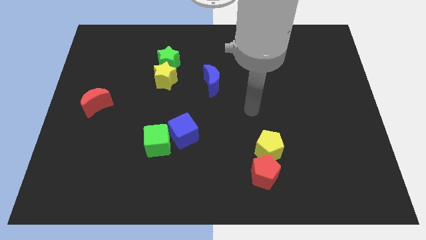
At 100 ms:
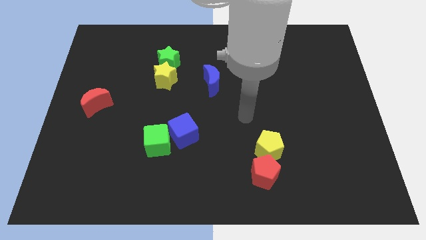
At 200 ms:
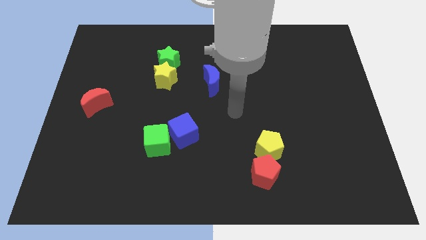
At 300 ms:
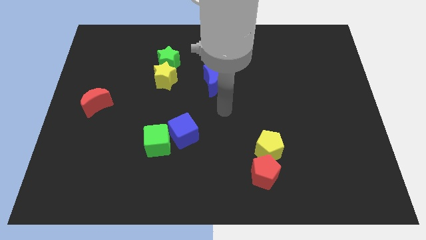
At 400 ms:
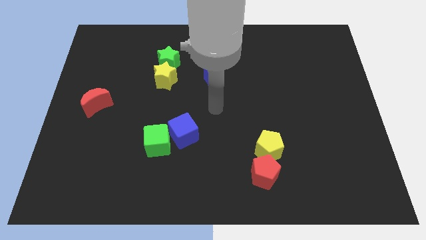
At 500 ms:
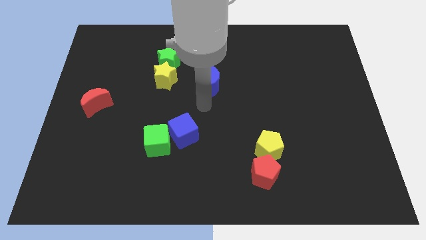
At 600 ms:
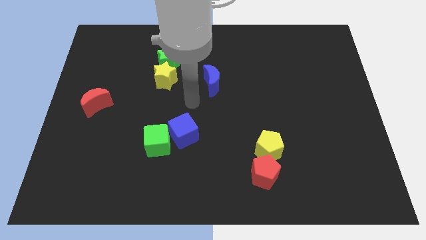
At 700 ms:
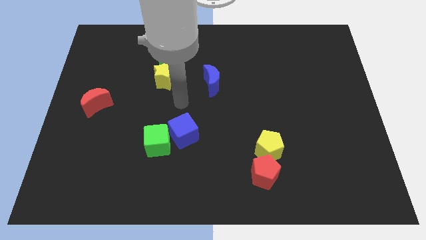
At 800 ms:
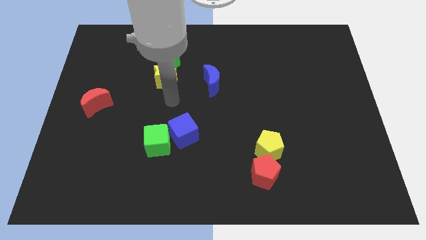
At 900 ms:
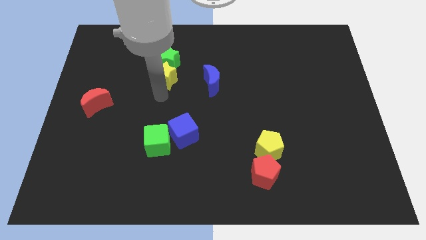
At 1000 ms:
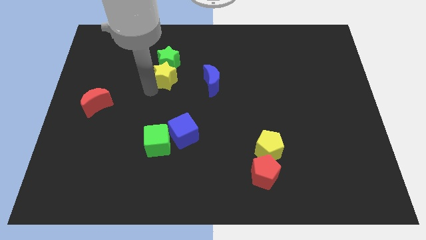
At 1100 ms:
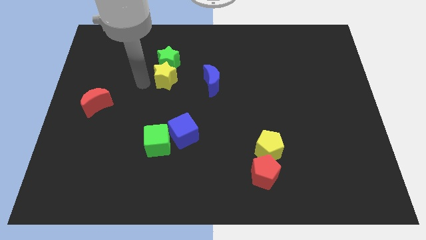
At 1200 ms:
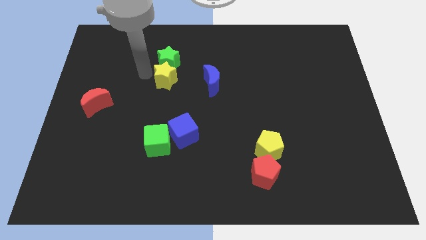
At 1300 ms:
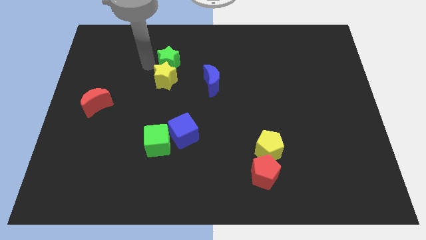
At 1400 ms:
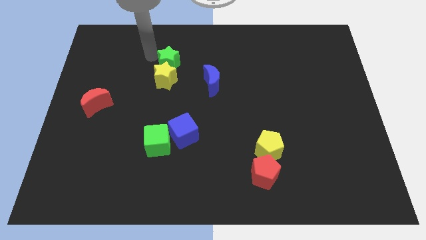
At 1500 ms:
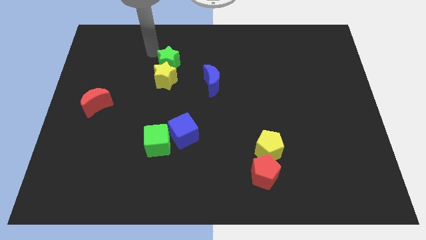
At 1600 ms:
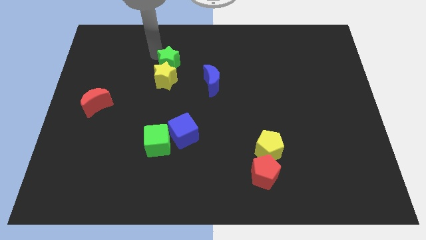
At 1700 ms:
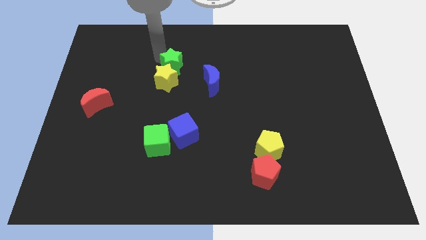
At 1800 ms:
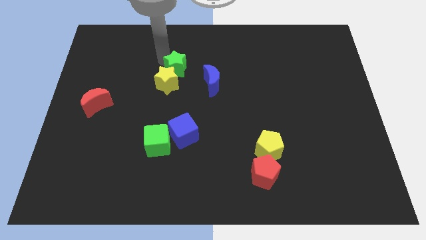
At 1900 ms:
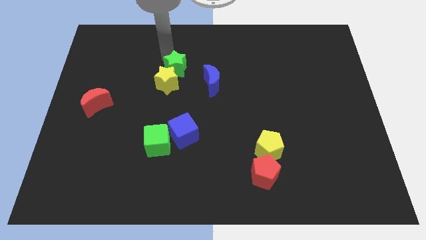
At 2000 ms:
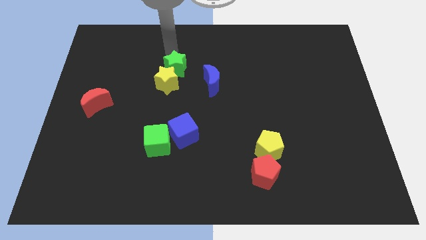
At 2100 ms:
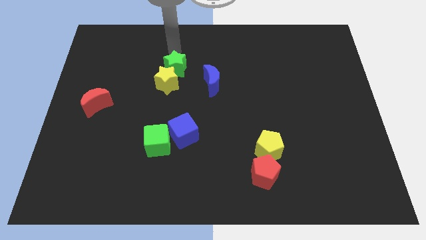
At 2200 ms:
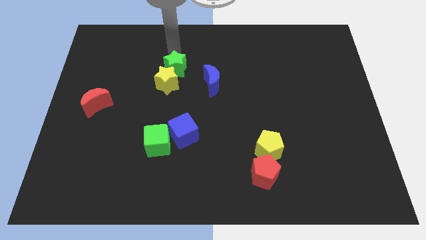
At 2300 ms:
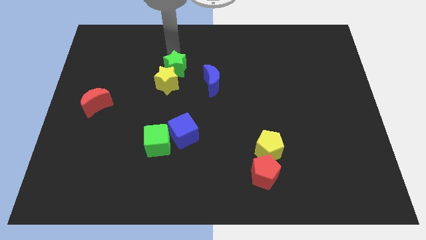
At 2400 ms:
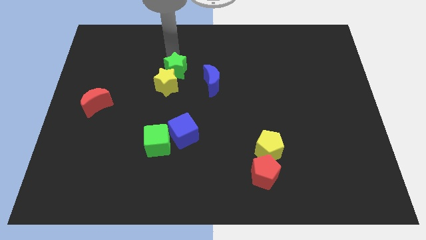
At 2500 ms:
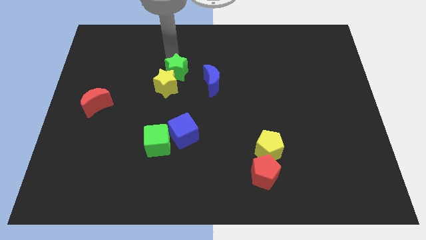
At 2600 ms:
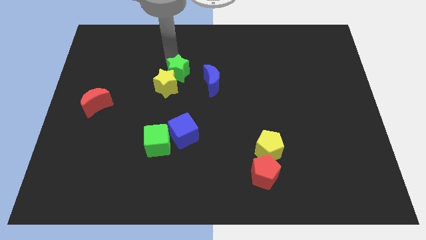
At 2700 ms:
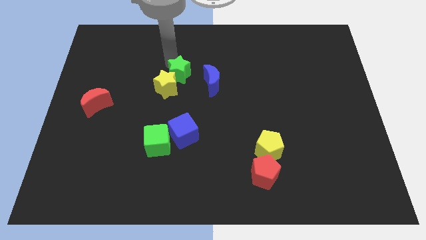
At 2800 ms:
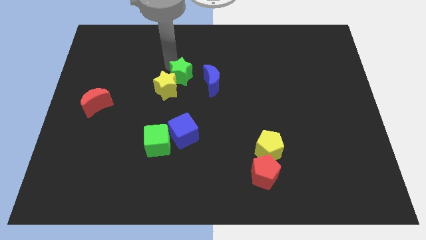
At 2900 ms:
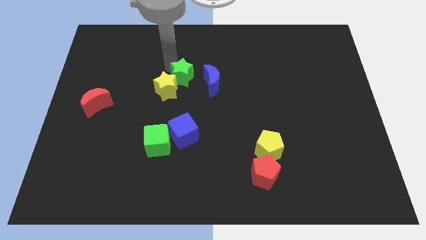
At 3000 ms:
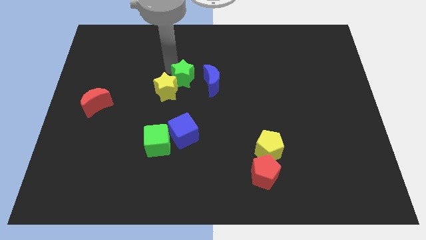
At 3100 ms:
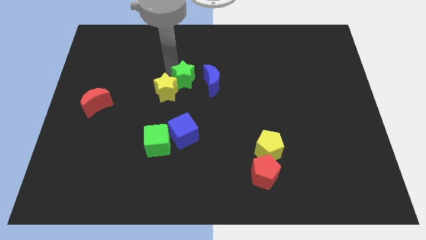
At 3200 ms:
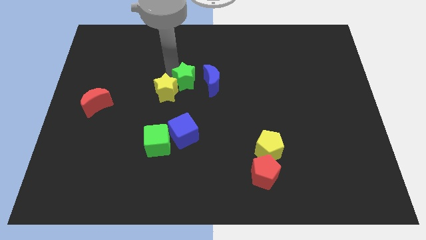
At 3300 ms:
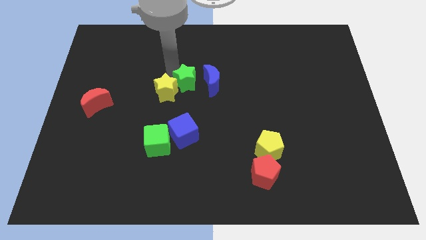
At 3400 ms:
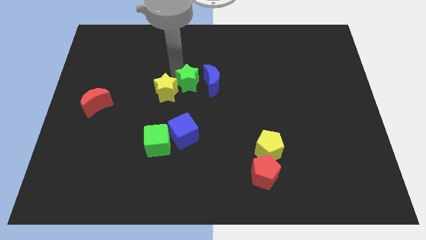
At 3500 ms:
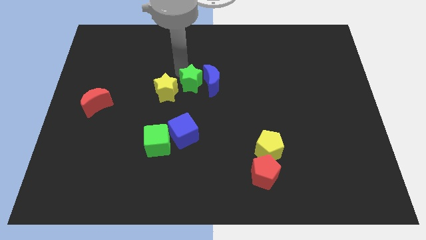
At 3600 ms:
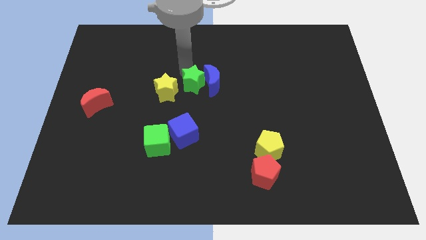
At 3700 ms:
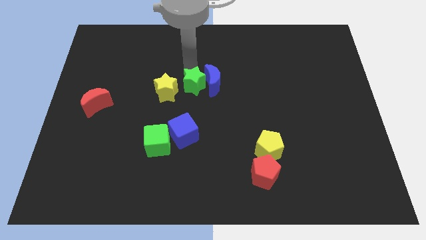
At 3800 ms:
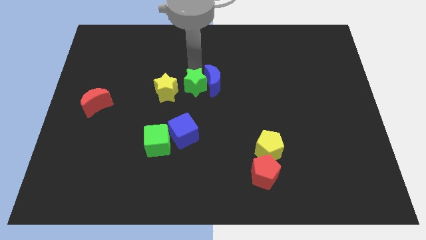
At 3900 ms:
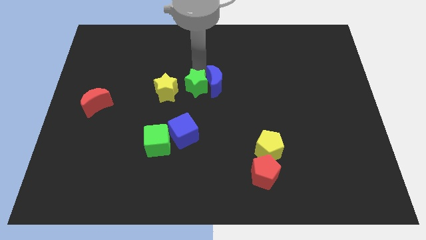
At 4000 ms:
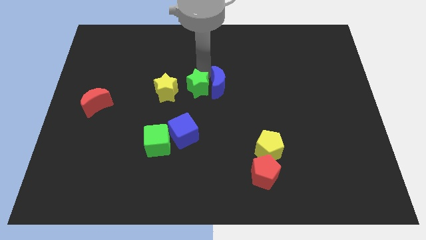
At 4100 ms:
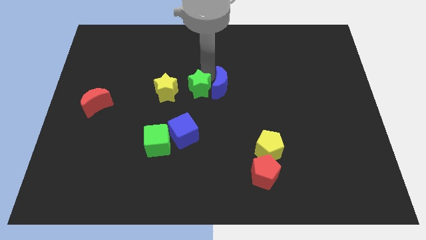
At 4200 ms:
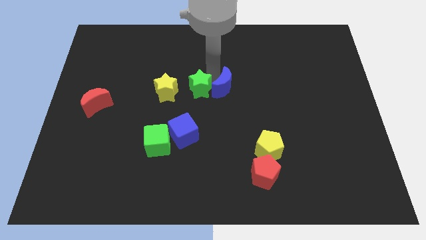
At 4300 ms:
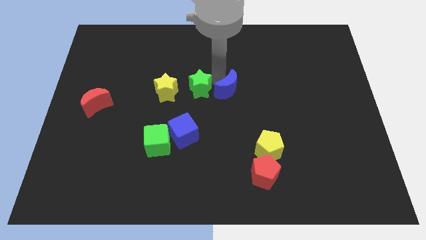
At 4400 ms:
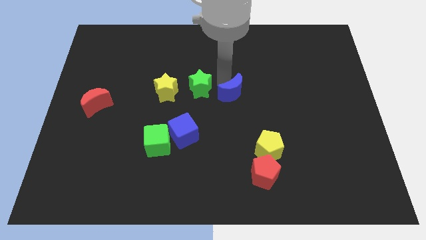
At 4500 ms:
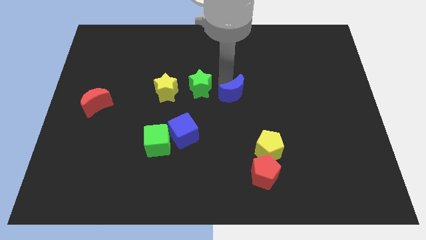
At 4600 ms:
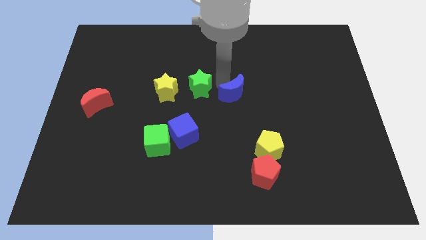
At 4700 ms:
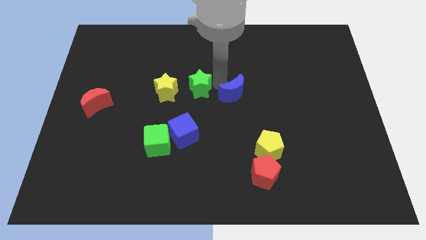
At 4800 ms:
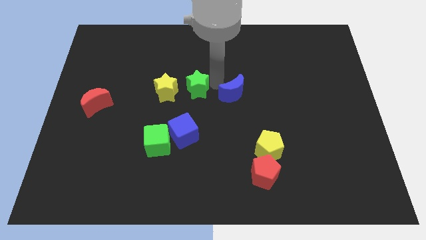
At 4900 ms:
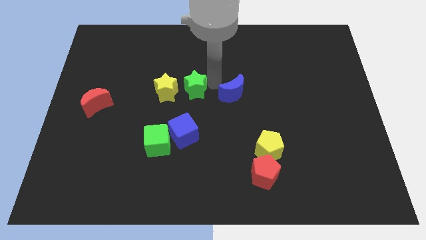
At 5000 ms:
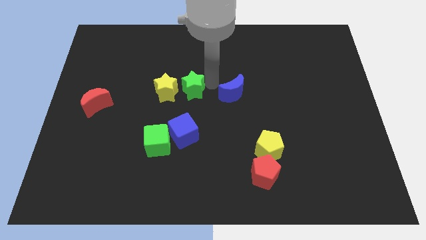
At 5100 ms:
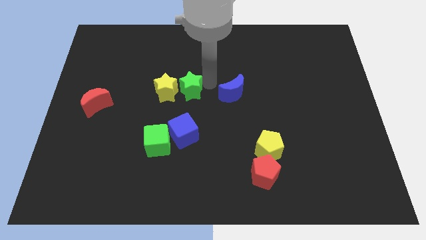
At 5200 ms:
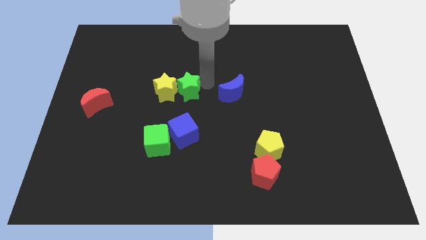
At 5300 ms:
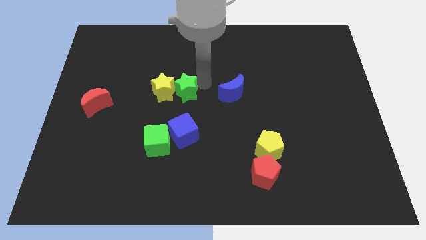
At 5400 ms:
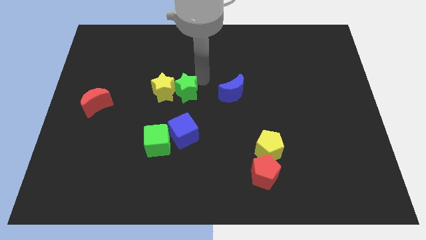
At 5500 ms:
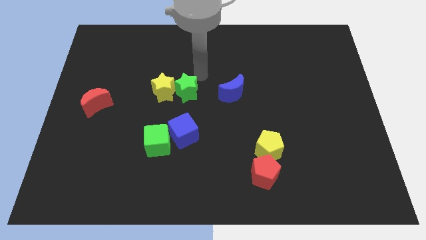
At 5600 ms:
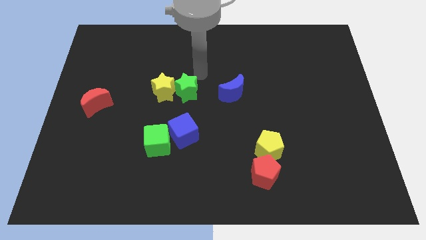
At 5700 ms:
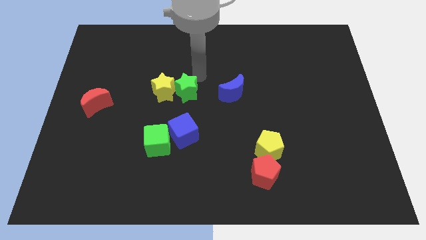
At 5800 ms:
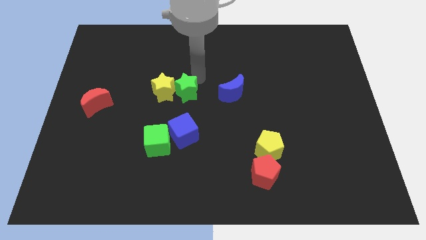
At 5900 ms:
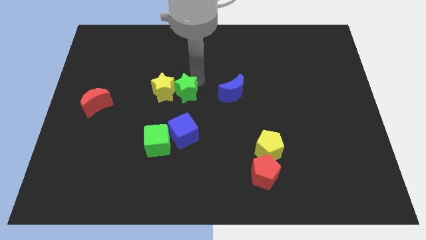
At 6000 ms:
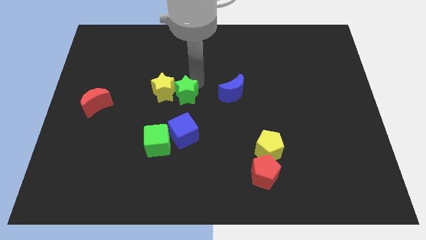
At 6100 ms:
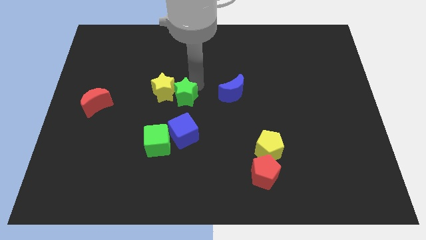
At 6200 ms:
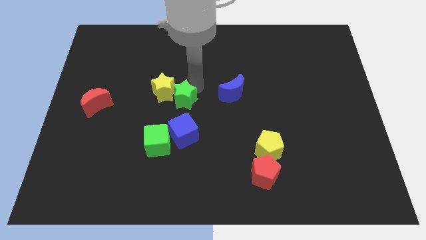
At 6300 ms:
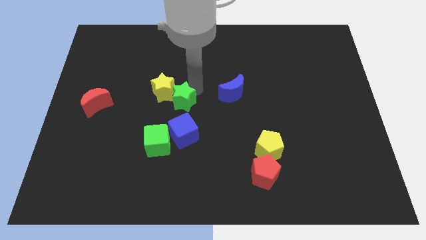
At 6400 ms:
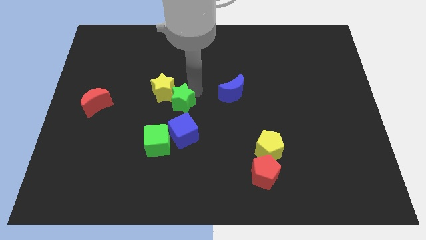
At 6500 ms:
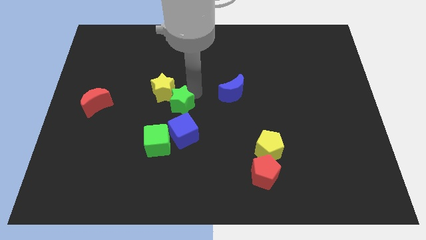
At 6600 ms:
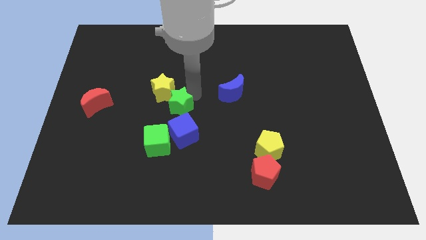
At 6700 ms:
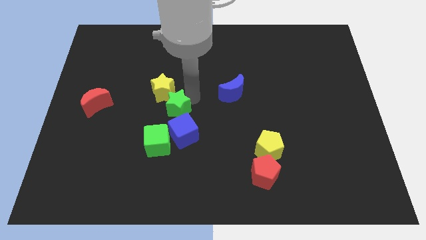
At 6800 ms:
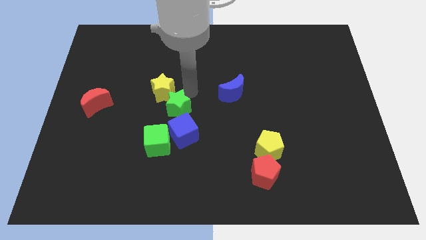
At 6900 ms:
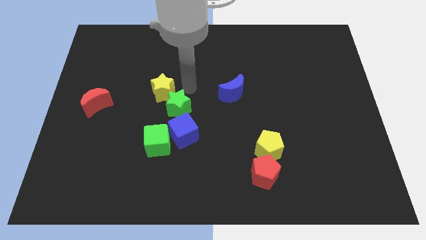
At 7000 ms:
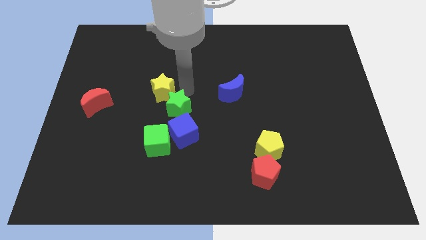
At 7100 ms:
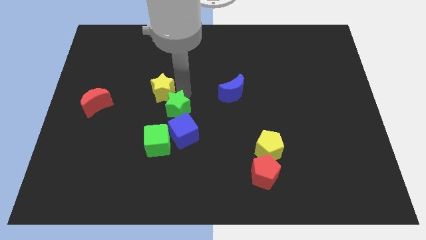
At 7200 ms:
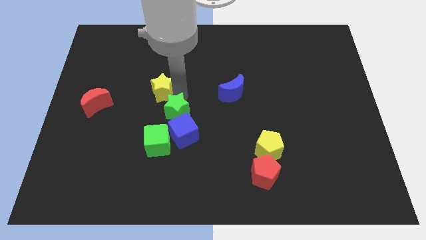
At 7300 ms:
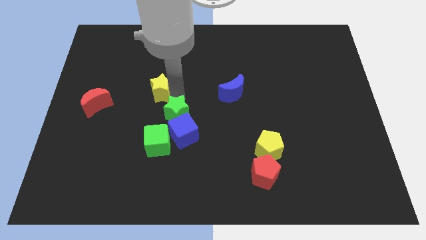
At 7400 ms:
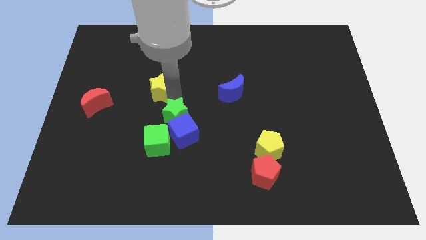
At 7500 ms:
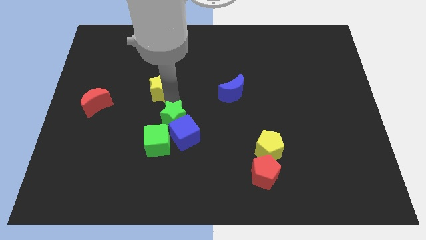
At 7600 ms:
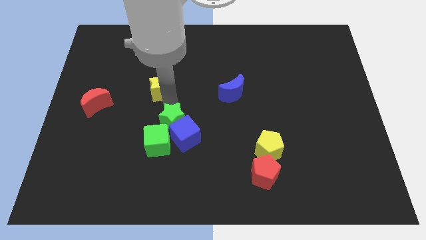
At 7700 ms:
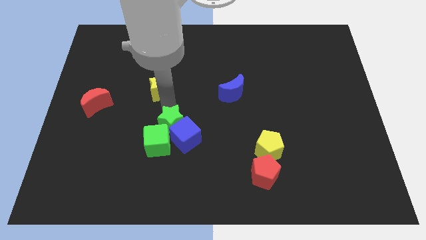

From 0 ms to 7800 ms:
push the green star to the green cube
